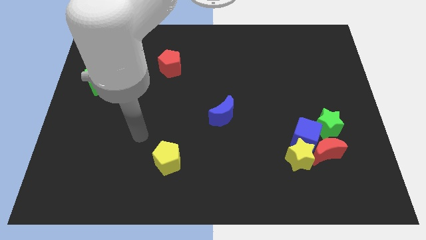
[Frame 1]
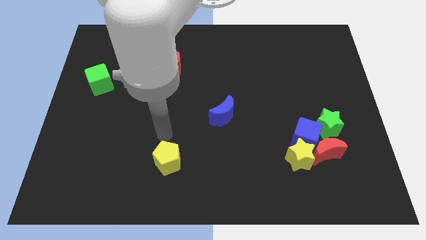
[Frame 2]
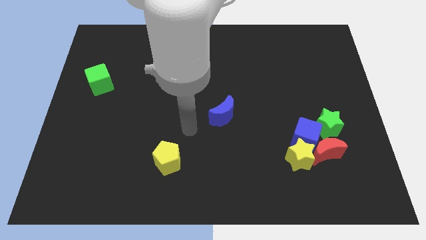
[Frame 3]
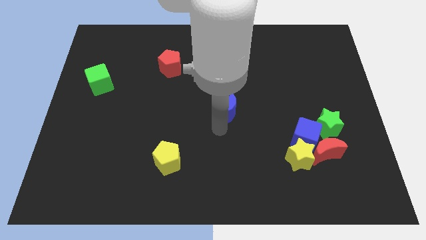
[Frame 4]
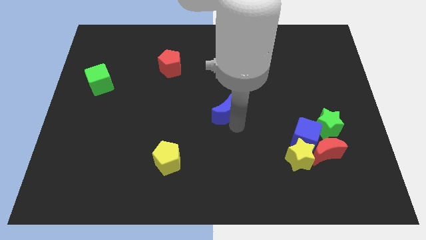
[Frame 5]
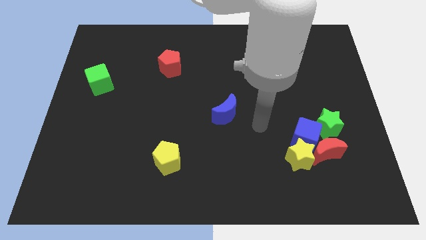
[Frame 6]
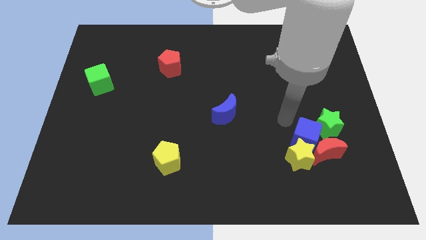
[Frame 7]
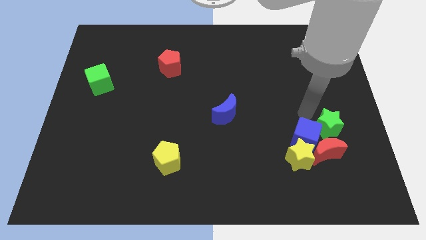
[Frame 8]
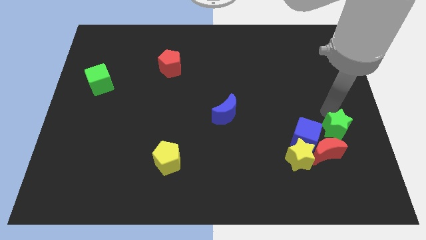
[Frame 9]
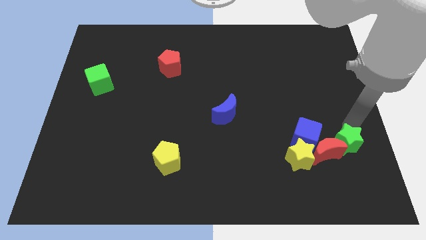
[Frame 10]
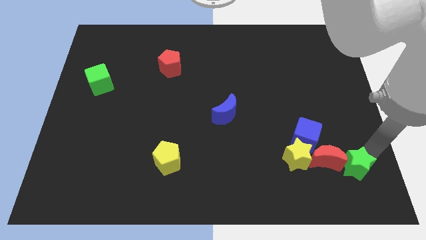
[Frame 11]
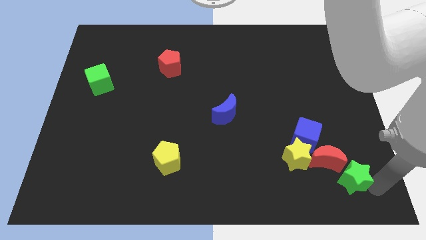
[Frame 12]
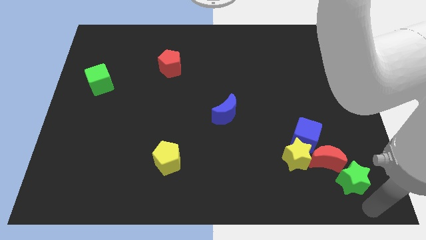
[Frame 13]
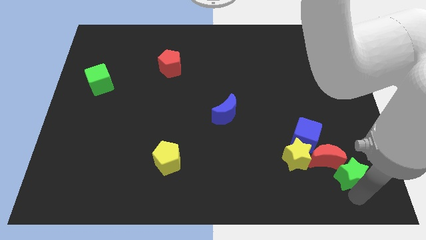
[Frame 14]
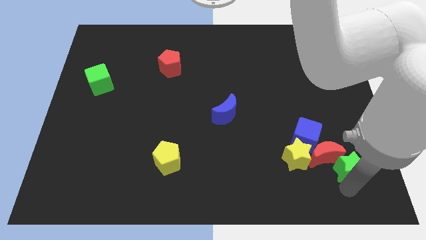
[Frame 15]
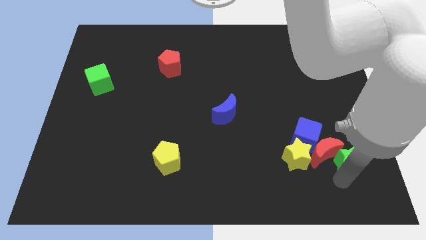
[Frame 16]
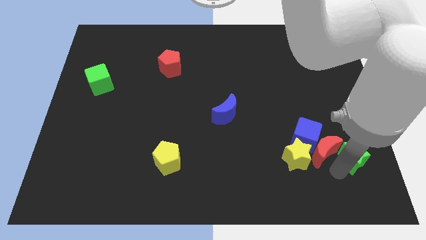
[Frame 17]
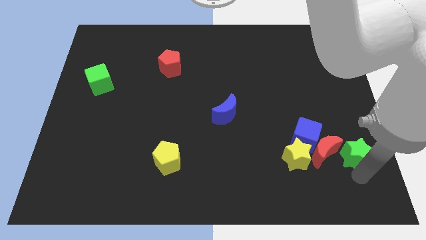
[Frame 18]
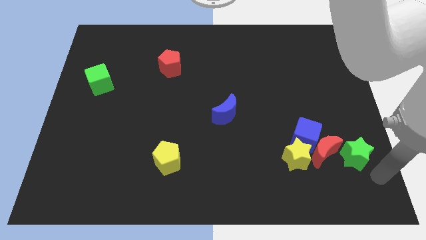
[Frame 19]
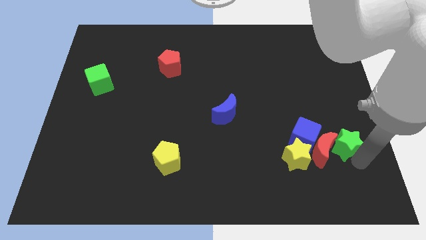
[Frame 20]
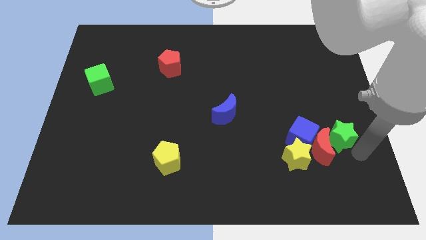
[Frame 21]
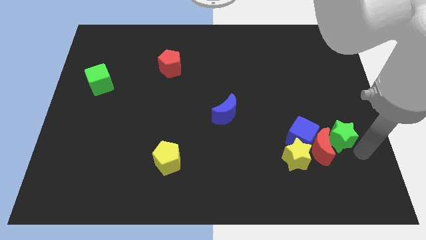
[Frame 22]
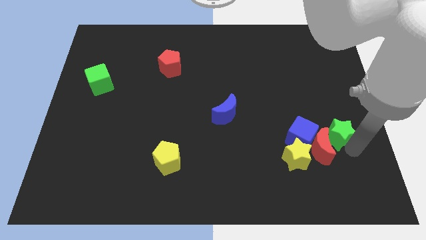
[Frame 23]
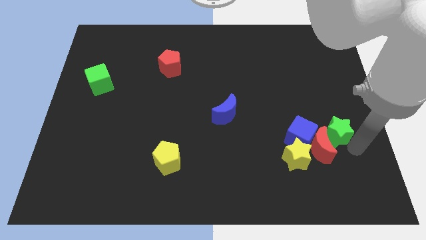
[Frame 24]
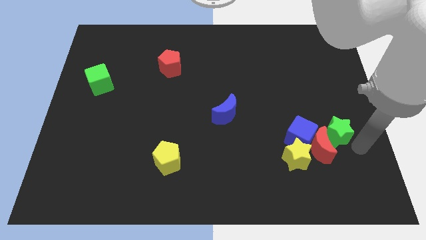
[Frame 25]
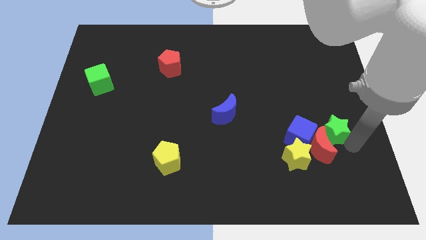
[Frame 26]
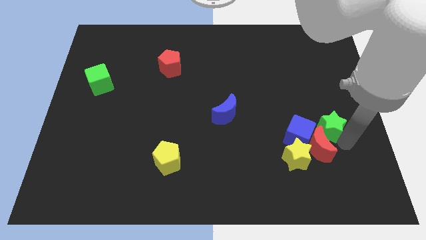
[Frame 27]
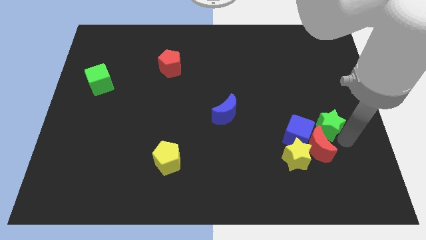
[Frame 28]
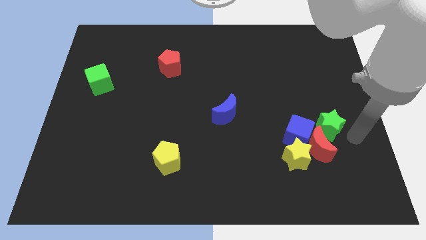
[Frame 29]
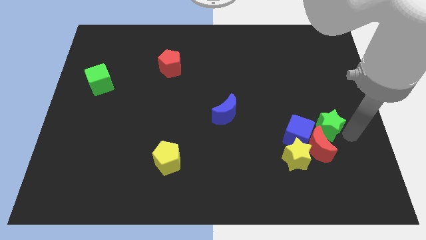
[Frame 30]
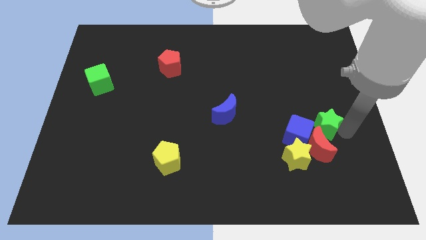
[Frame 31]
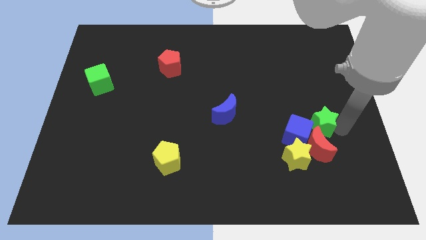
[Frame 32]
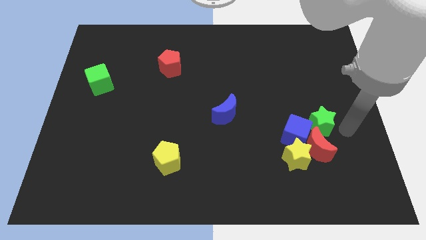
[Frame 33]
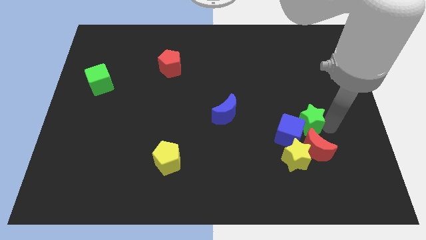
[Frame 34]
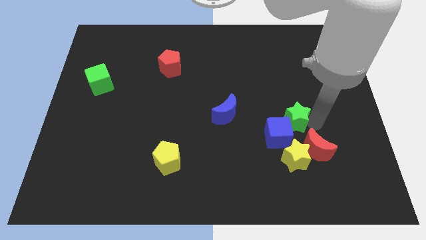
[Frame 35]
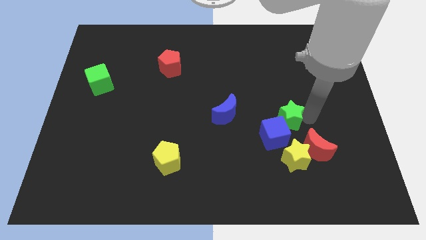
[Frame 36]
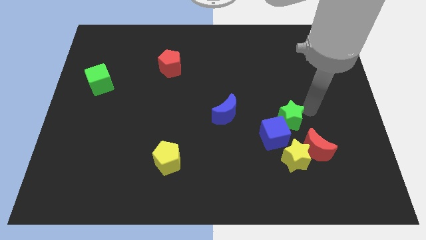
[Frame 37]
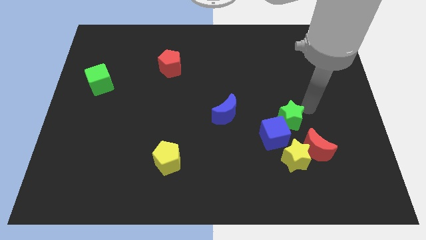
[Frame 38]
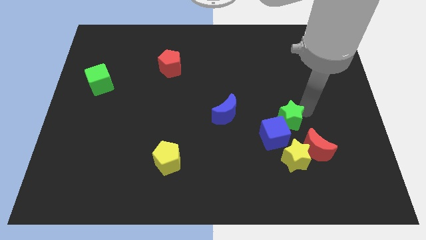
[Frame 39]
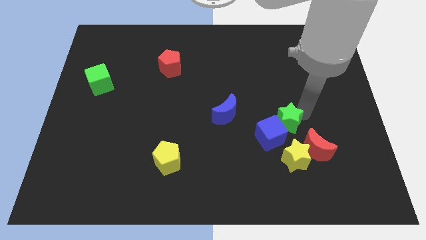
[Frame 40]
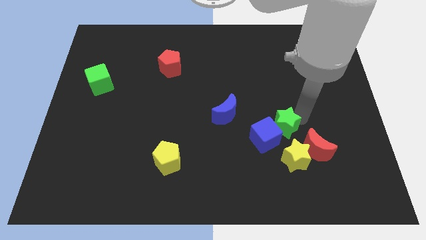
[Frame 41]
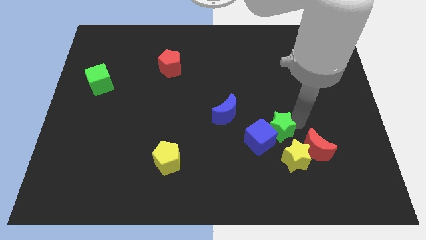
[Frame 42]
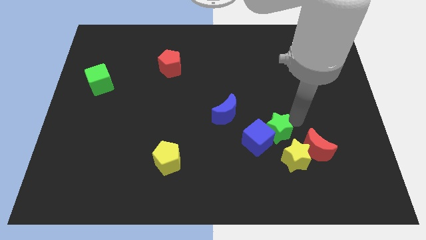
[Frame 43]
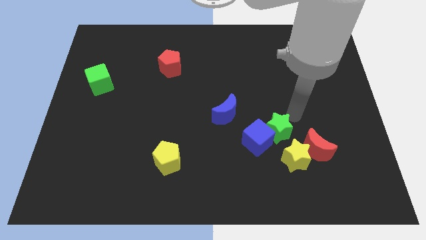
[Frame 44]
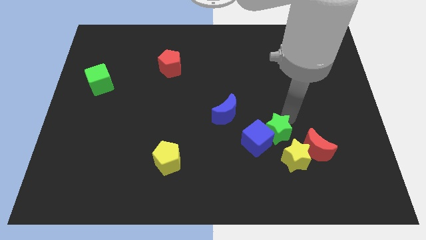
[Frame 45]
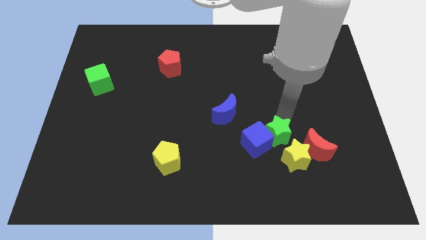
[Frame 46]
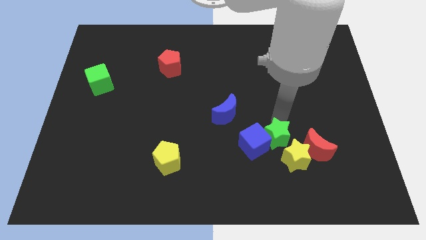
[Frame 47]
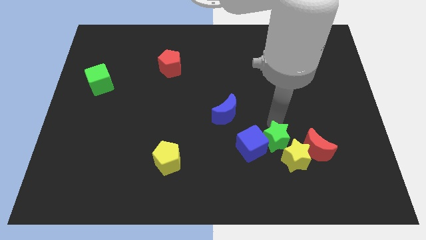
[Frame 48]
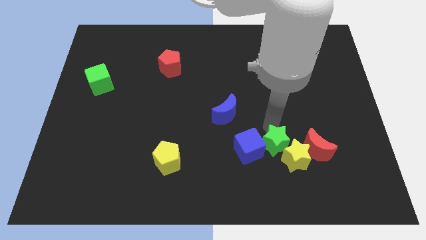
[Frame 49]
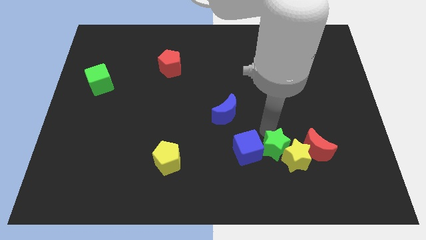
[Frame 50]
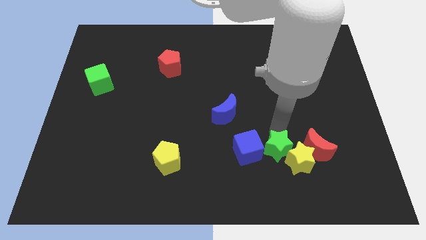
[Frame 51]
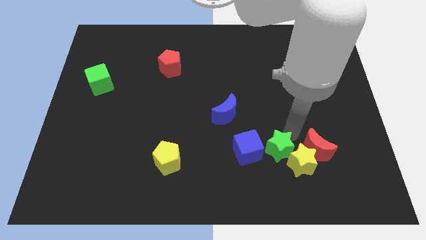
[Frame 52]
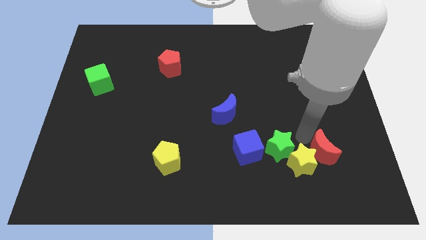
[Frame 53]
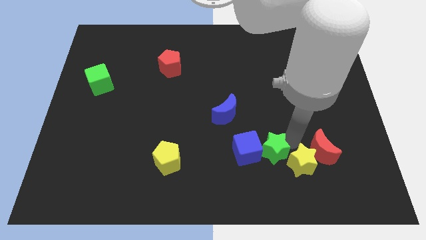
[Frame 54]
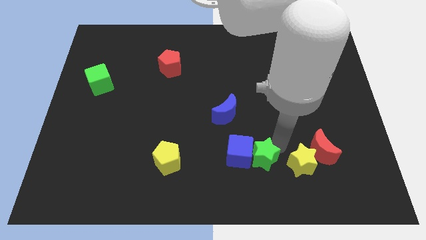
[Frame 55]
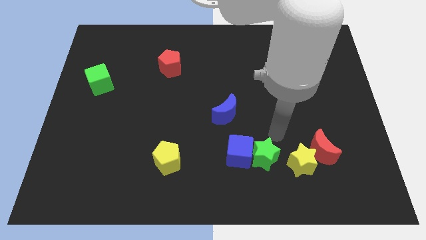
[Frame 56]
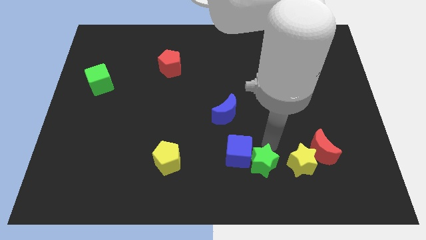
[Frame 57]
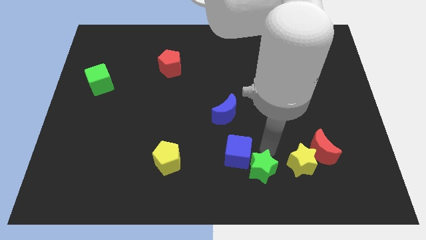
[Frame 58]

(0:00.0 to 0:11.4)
put the green star to the bottom side

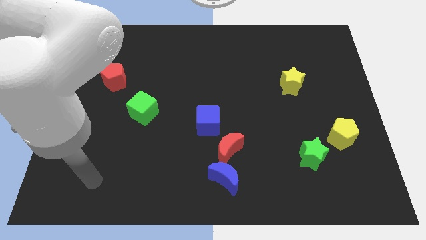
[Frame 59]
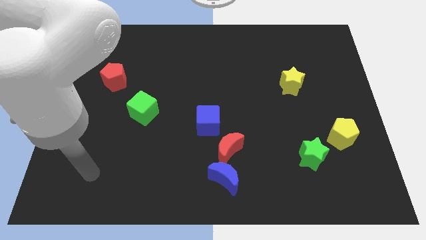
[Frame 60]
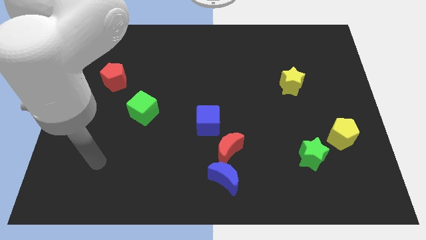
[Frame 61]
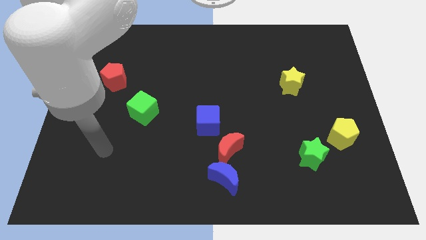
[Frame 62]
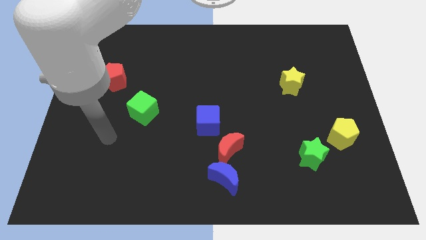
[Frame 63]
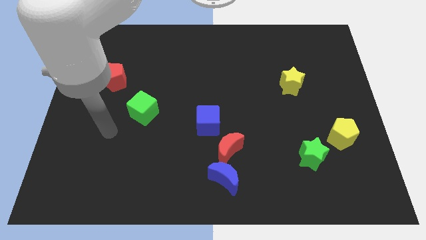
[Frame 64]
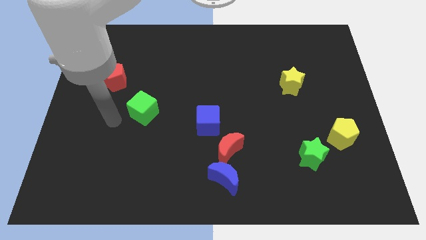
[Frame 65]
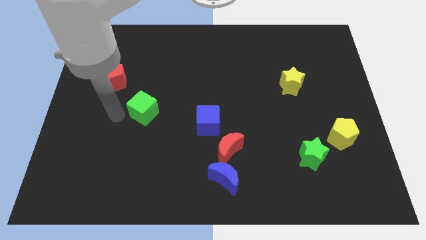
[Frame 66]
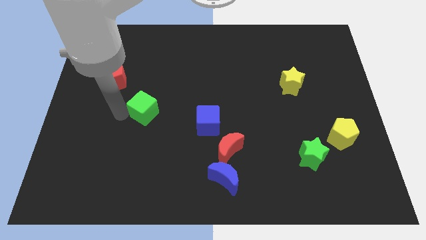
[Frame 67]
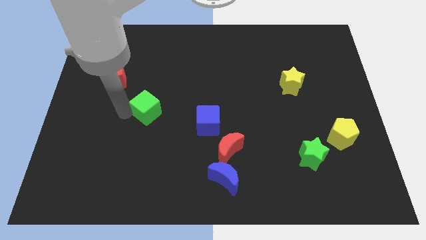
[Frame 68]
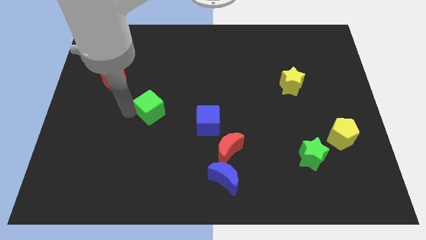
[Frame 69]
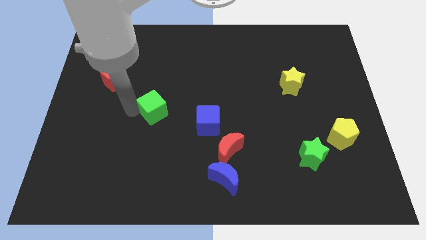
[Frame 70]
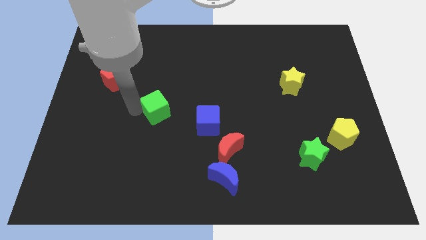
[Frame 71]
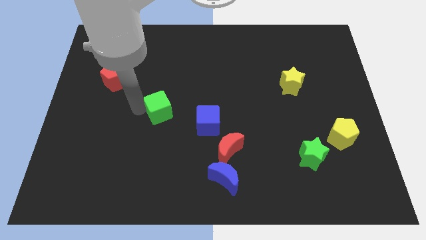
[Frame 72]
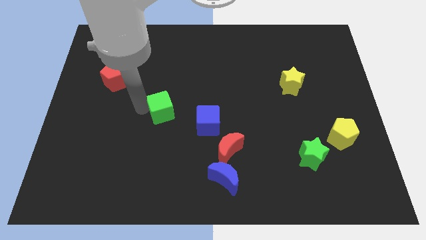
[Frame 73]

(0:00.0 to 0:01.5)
slide the green cube to the middle of the board
